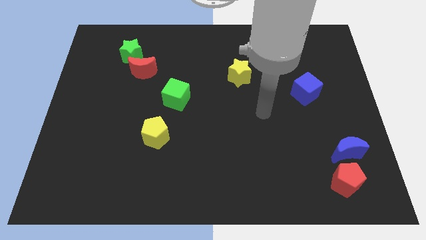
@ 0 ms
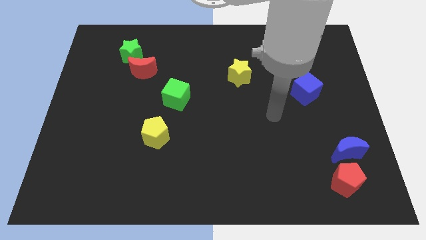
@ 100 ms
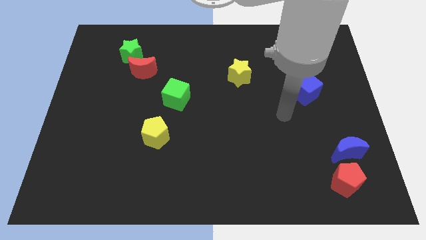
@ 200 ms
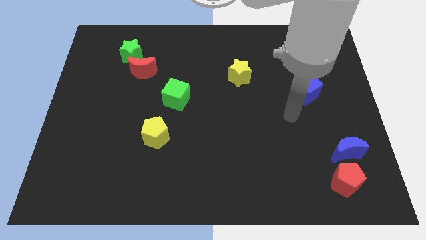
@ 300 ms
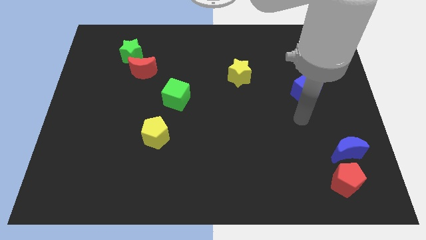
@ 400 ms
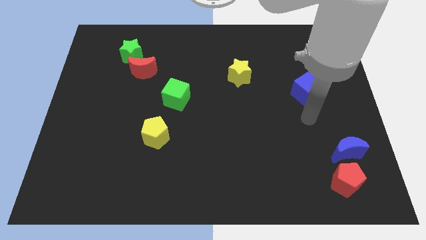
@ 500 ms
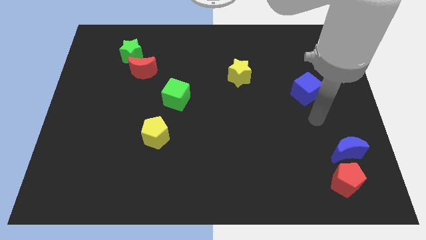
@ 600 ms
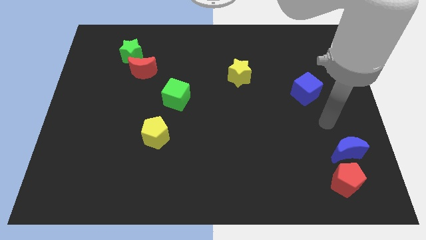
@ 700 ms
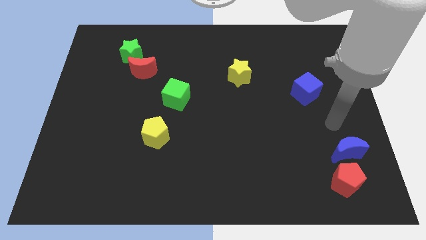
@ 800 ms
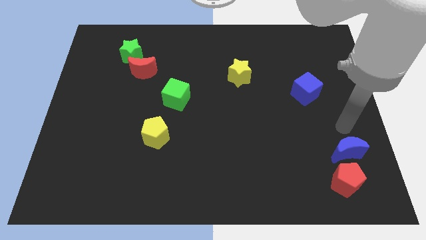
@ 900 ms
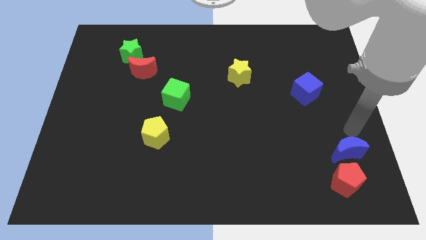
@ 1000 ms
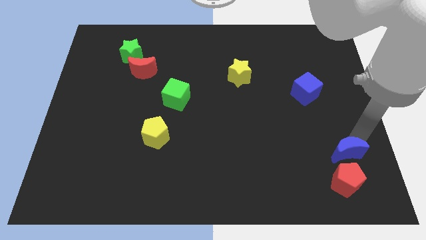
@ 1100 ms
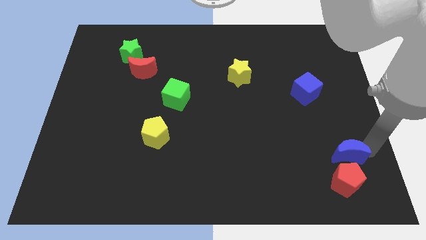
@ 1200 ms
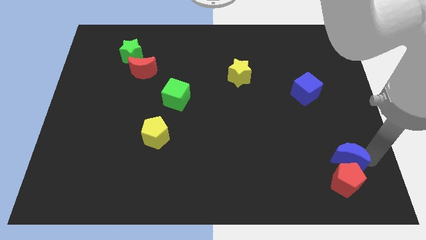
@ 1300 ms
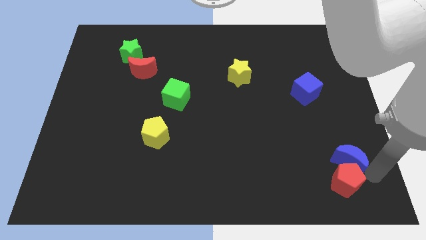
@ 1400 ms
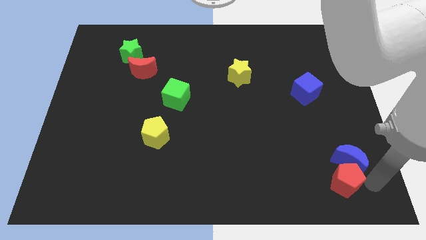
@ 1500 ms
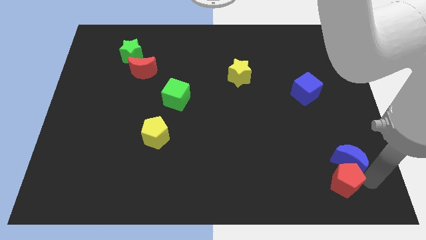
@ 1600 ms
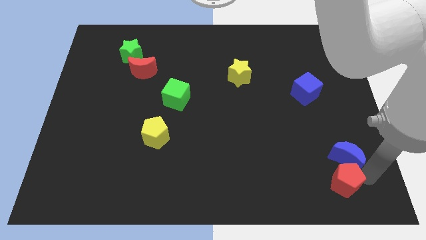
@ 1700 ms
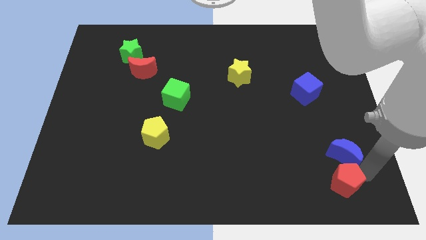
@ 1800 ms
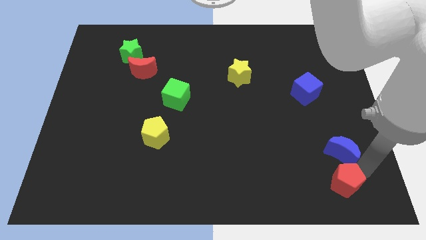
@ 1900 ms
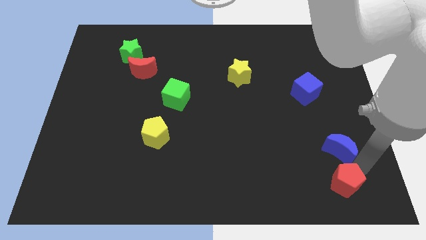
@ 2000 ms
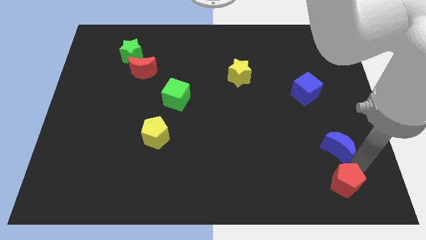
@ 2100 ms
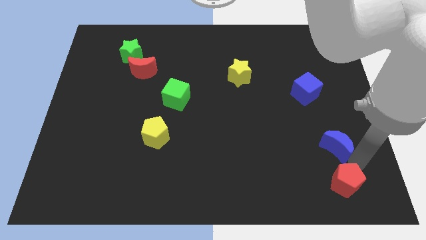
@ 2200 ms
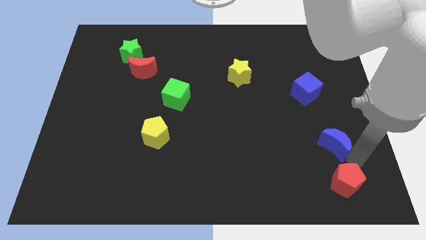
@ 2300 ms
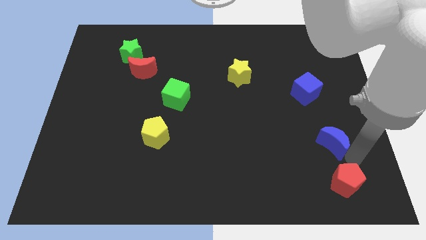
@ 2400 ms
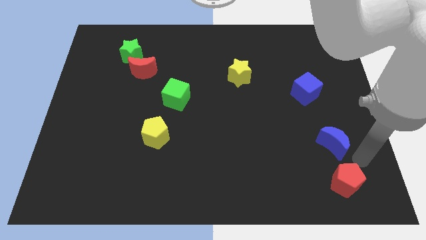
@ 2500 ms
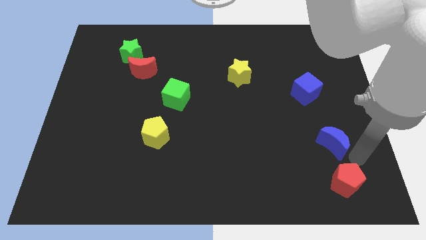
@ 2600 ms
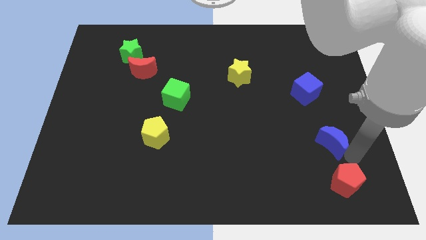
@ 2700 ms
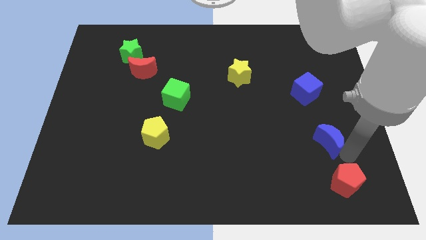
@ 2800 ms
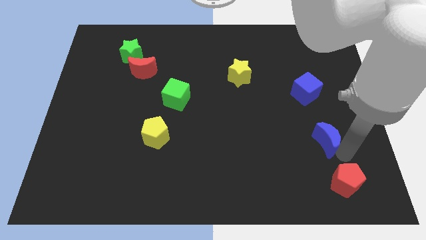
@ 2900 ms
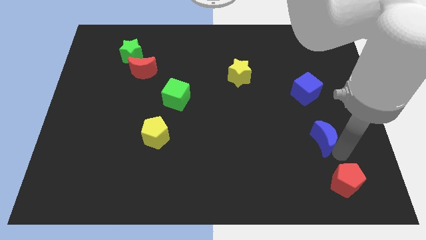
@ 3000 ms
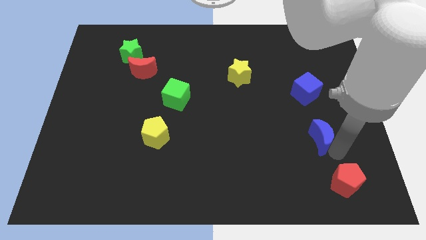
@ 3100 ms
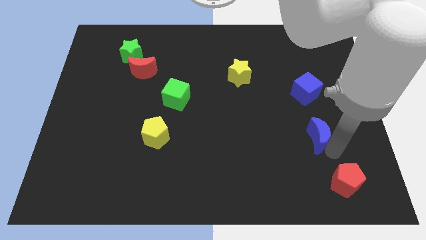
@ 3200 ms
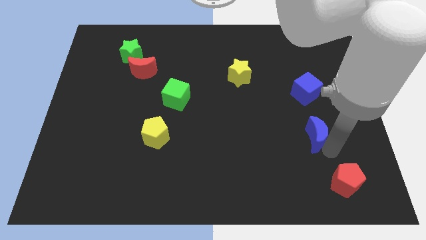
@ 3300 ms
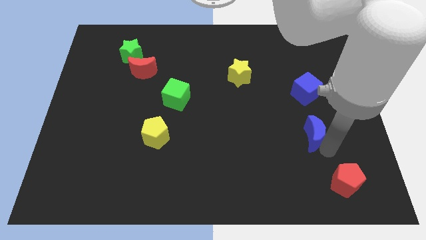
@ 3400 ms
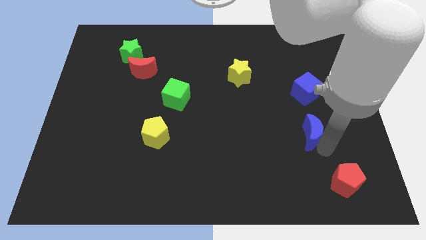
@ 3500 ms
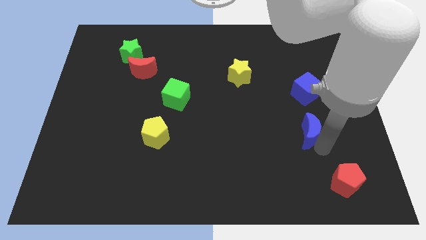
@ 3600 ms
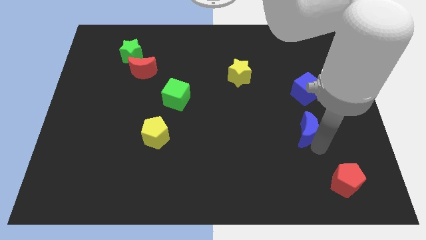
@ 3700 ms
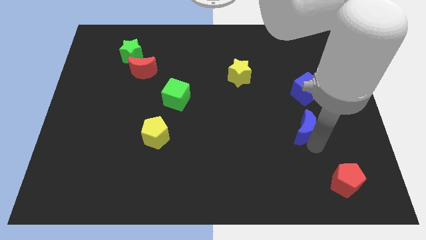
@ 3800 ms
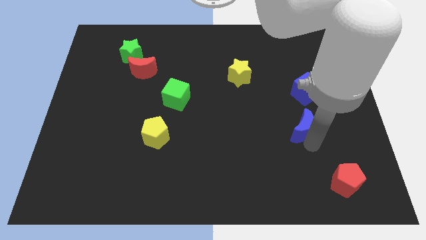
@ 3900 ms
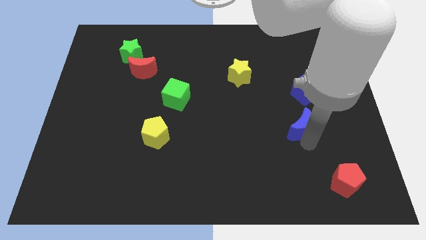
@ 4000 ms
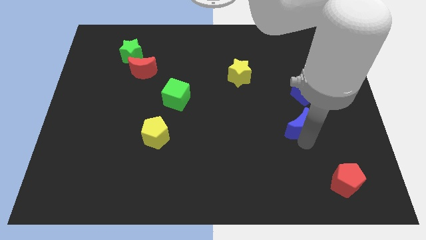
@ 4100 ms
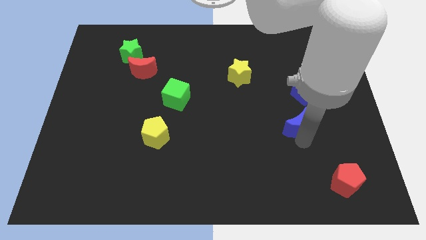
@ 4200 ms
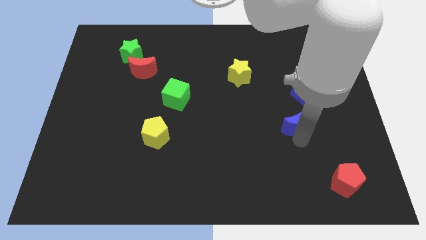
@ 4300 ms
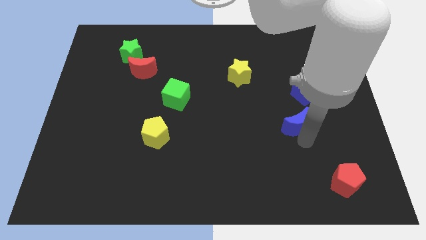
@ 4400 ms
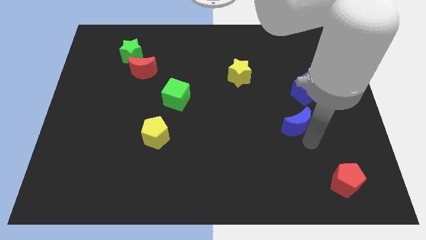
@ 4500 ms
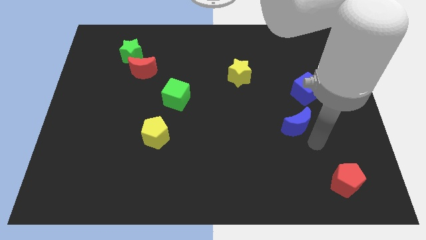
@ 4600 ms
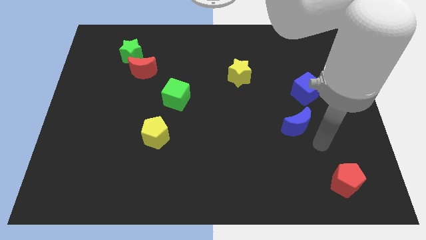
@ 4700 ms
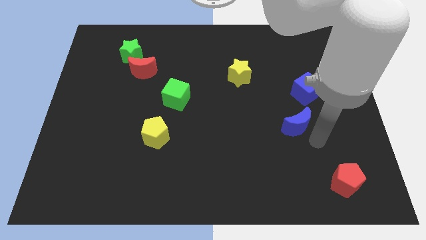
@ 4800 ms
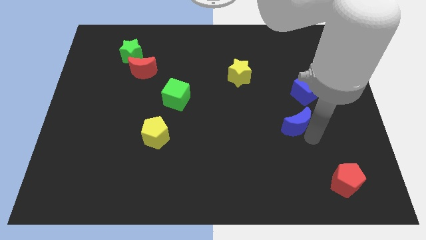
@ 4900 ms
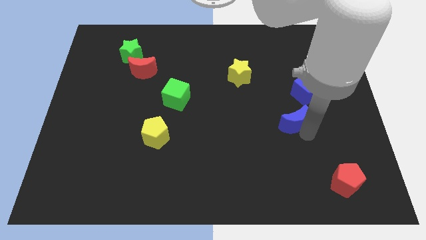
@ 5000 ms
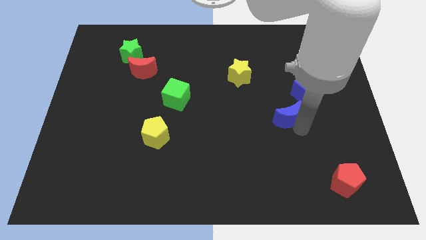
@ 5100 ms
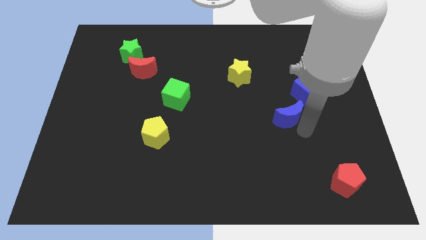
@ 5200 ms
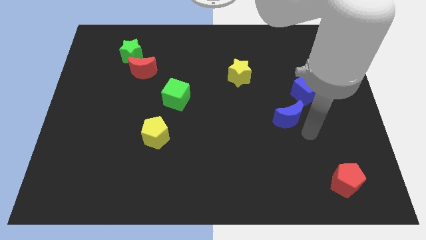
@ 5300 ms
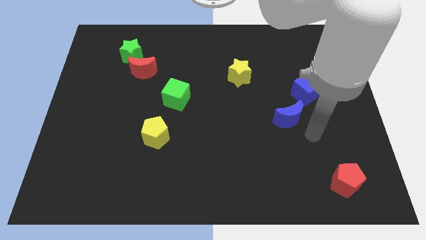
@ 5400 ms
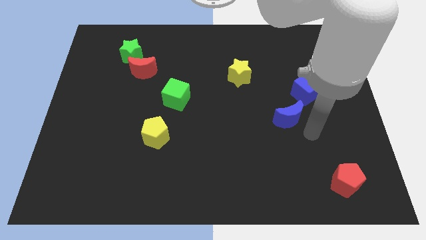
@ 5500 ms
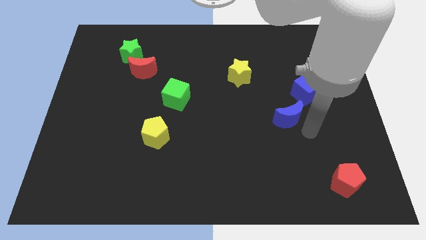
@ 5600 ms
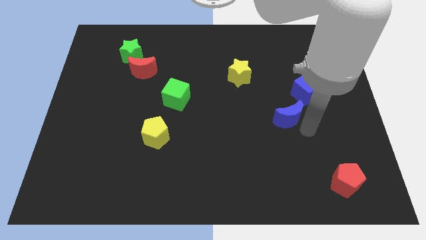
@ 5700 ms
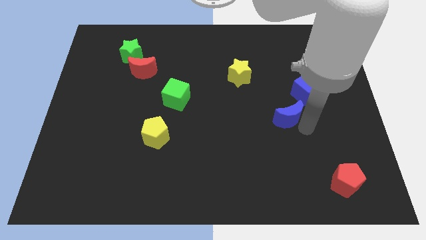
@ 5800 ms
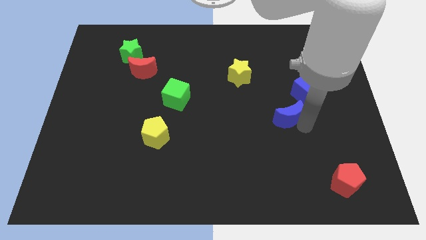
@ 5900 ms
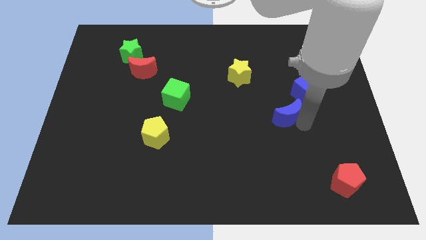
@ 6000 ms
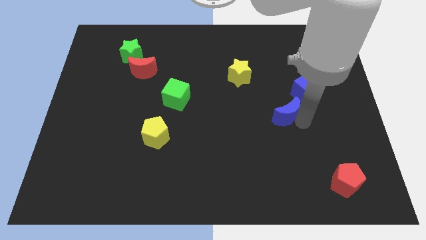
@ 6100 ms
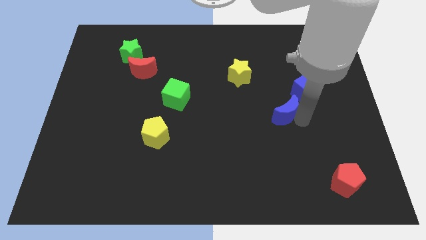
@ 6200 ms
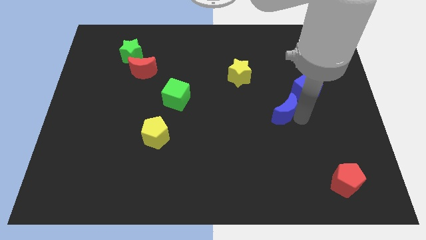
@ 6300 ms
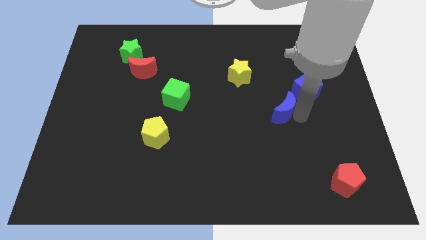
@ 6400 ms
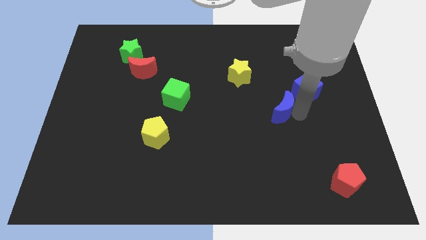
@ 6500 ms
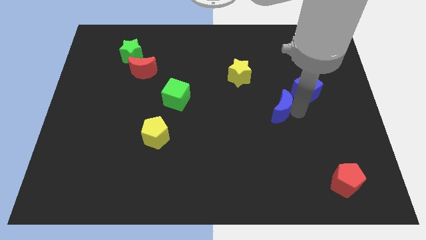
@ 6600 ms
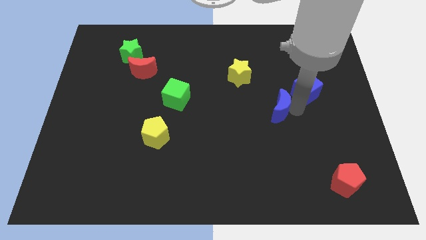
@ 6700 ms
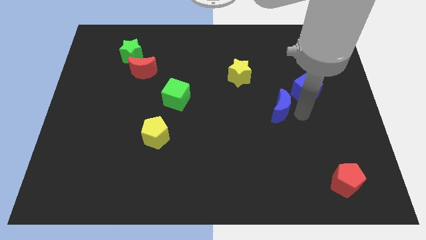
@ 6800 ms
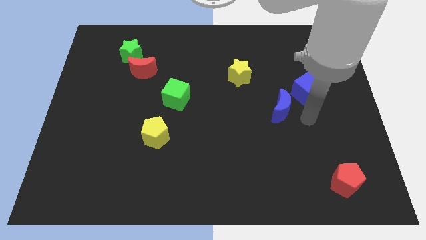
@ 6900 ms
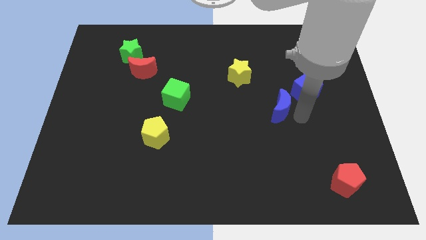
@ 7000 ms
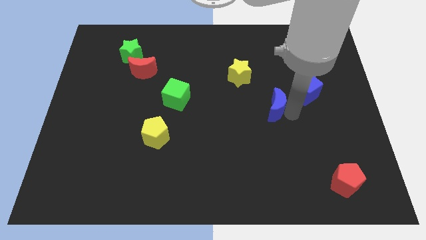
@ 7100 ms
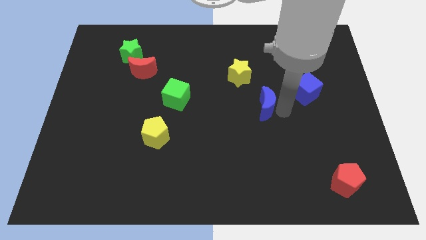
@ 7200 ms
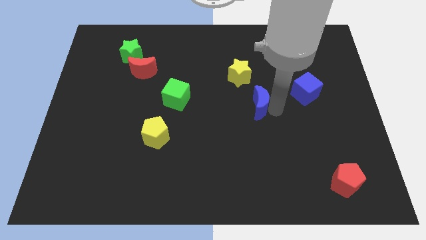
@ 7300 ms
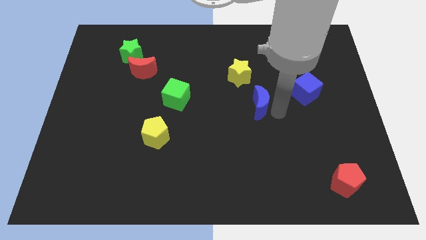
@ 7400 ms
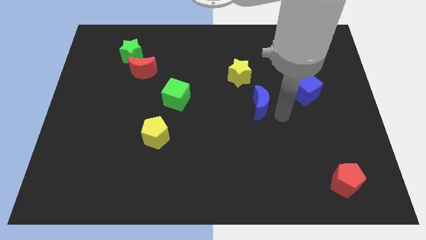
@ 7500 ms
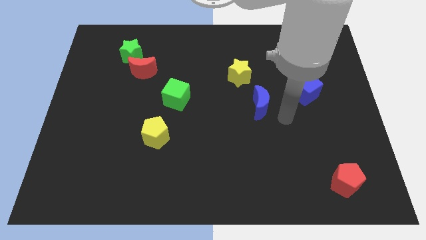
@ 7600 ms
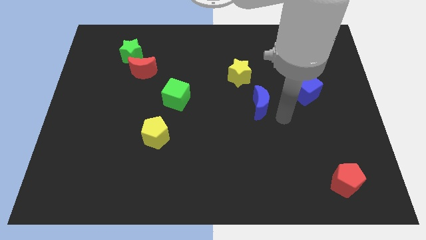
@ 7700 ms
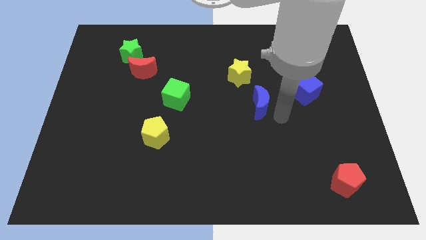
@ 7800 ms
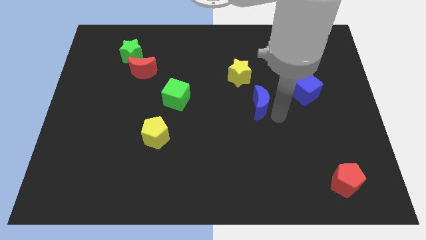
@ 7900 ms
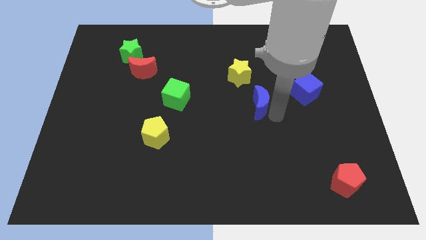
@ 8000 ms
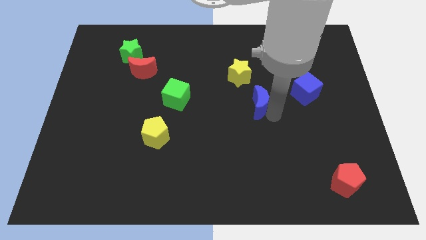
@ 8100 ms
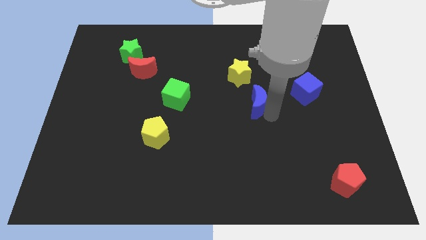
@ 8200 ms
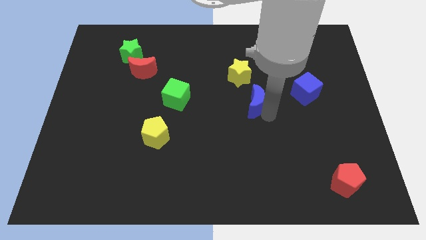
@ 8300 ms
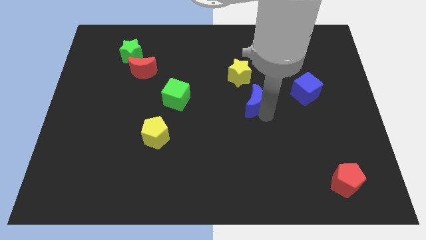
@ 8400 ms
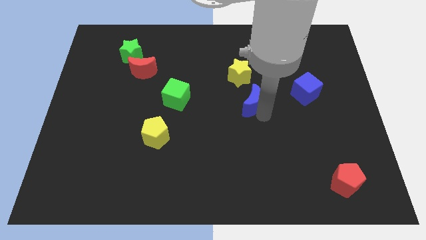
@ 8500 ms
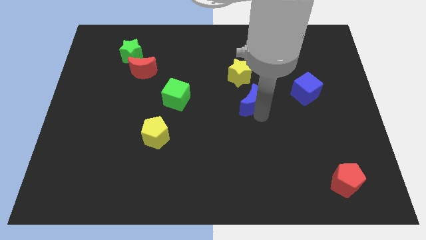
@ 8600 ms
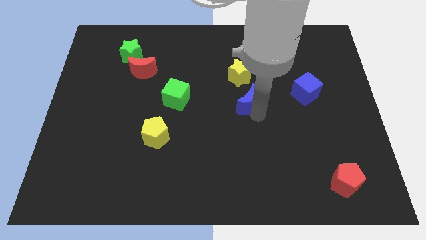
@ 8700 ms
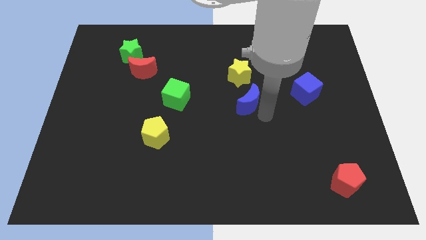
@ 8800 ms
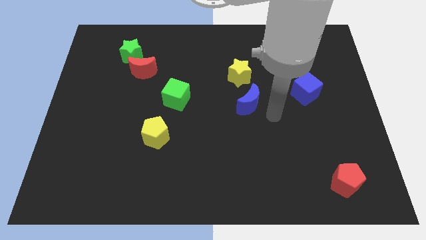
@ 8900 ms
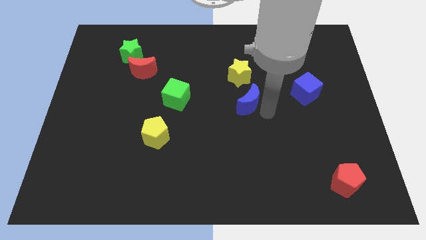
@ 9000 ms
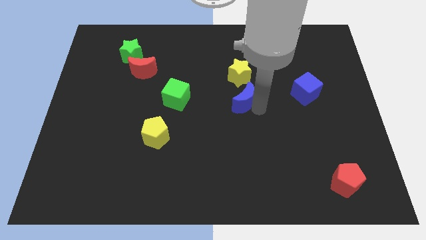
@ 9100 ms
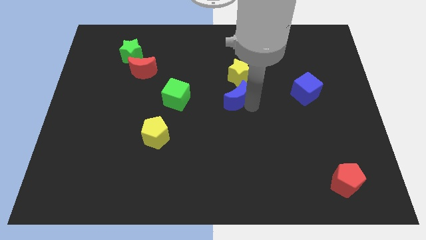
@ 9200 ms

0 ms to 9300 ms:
push the blue moon to the bottom left of the yellow star
